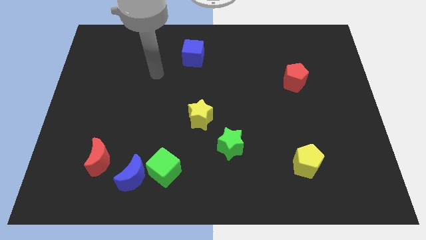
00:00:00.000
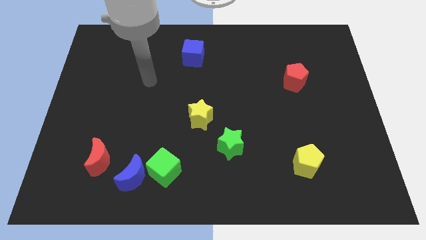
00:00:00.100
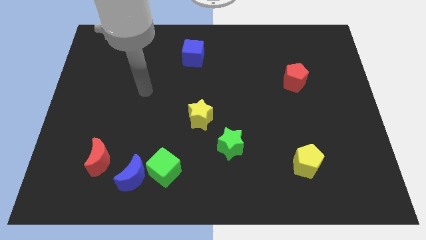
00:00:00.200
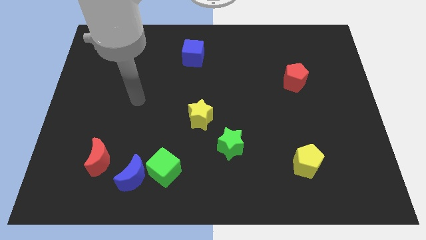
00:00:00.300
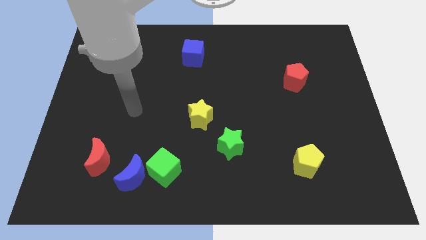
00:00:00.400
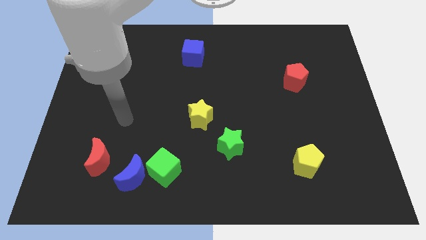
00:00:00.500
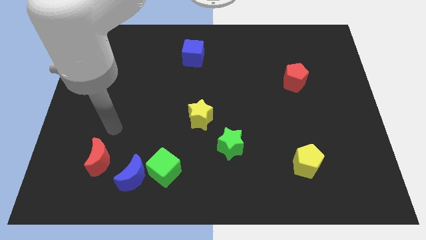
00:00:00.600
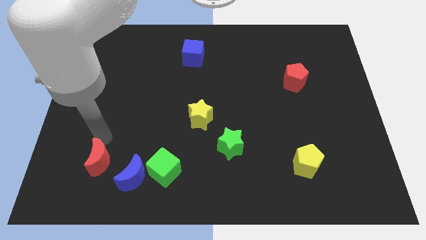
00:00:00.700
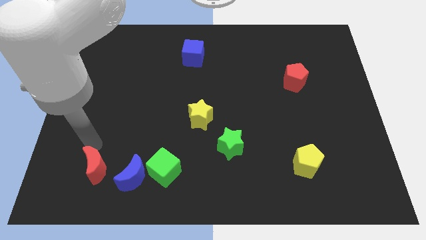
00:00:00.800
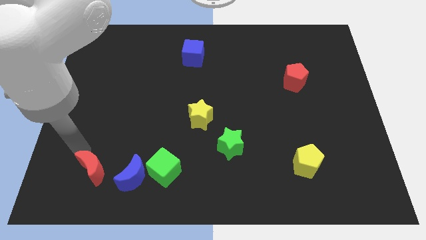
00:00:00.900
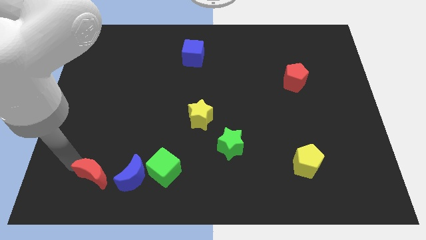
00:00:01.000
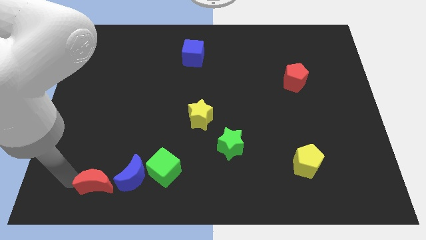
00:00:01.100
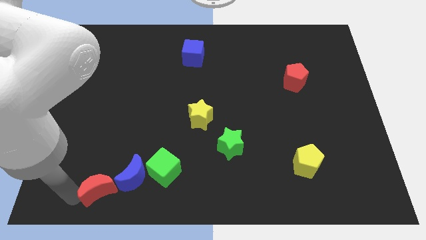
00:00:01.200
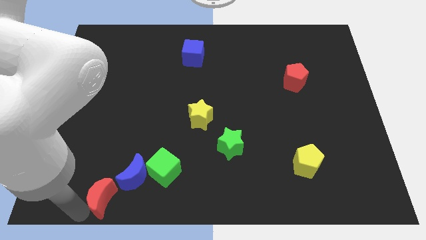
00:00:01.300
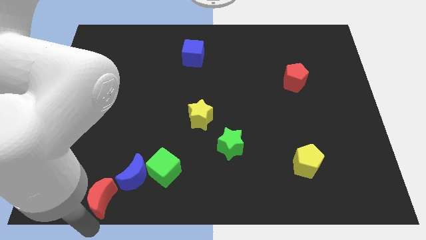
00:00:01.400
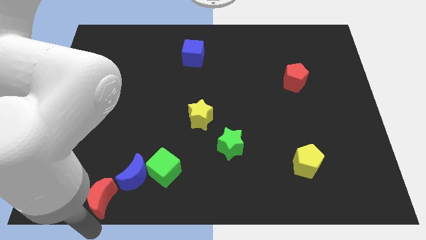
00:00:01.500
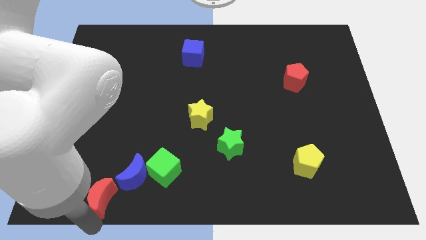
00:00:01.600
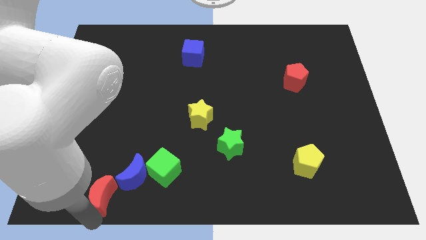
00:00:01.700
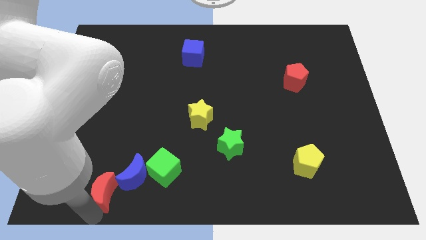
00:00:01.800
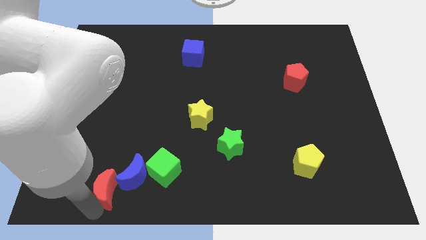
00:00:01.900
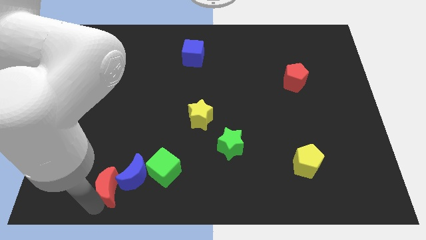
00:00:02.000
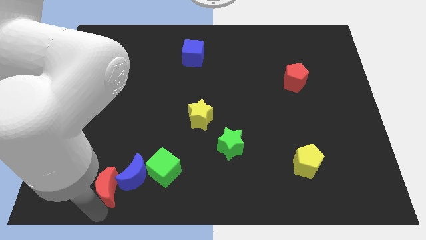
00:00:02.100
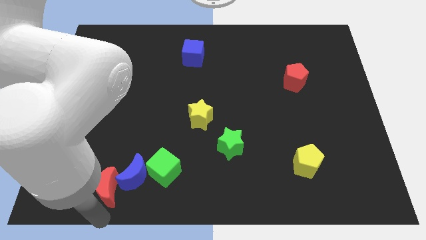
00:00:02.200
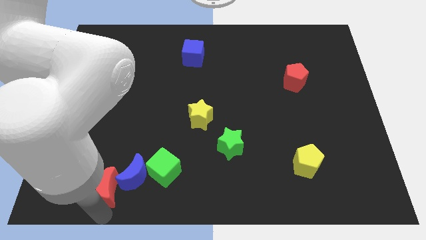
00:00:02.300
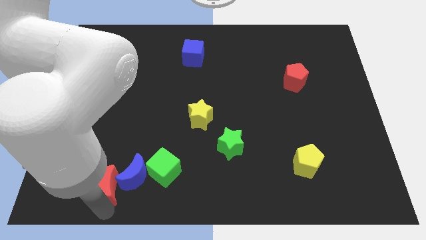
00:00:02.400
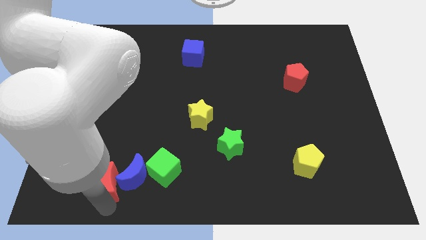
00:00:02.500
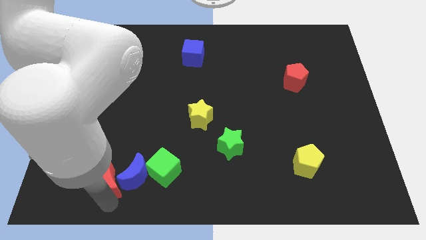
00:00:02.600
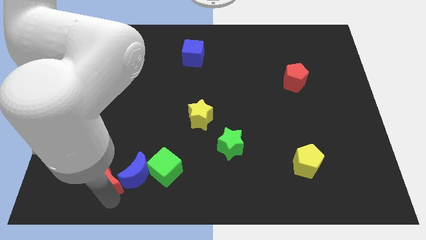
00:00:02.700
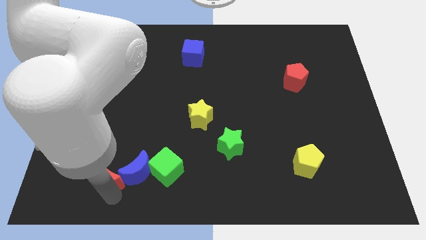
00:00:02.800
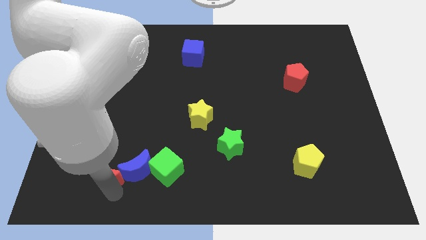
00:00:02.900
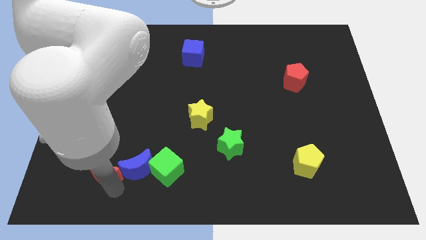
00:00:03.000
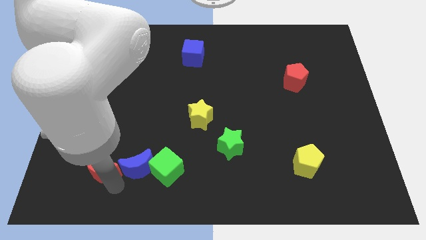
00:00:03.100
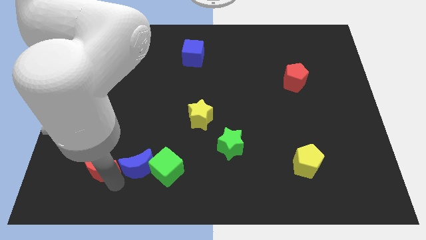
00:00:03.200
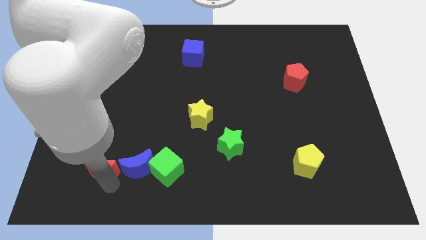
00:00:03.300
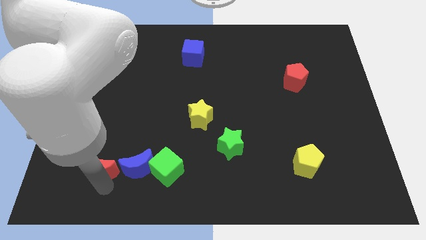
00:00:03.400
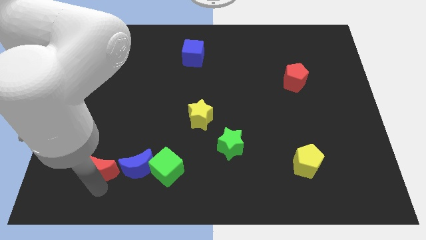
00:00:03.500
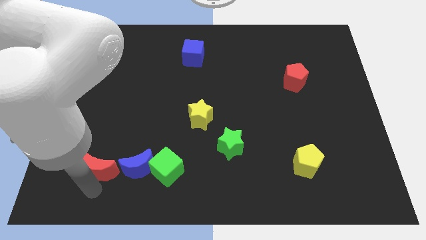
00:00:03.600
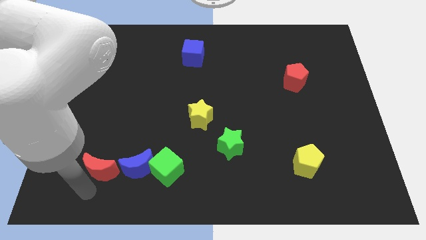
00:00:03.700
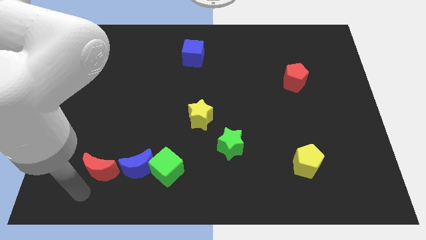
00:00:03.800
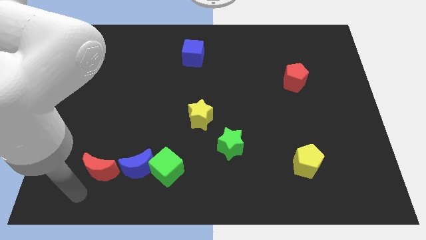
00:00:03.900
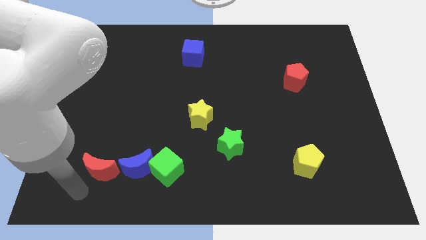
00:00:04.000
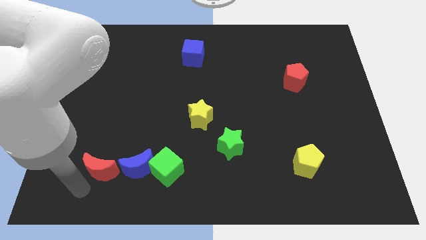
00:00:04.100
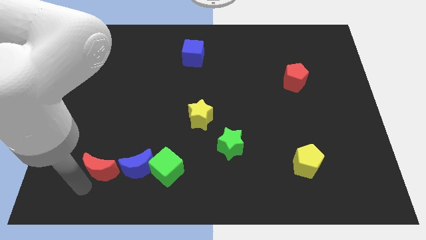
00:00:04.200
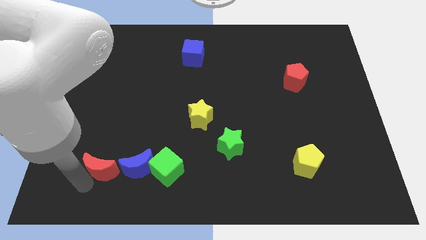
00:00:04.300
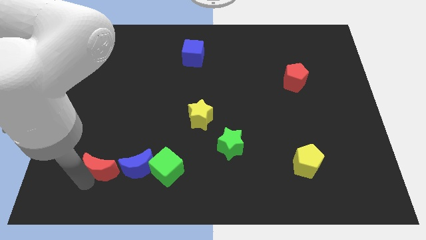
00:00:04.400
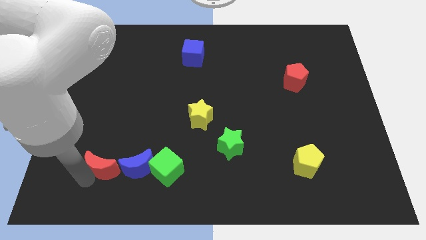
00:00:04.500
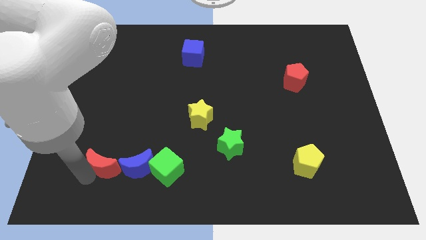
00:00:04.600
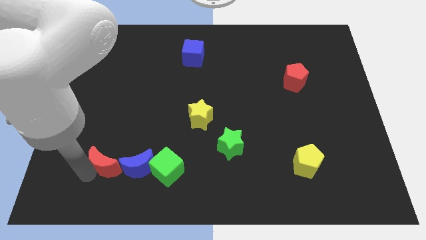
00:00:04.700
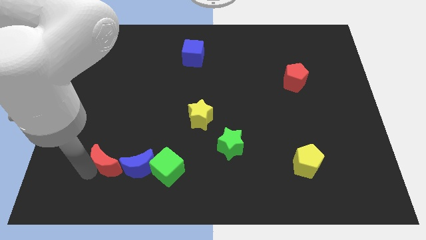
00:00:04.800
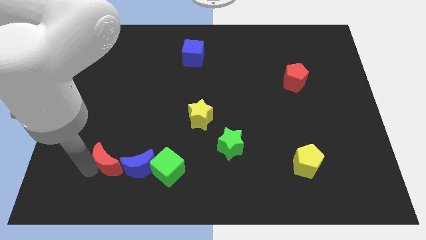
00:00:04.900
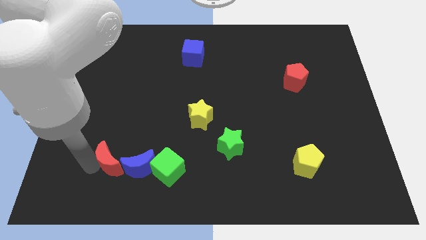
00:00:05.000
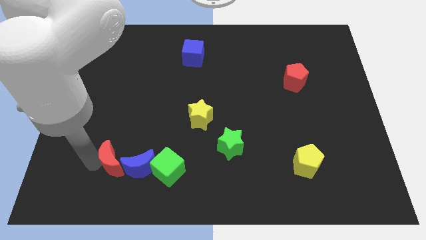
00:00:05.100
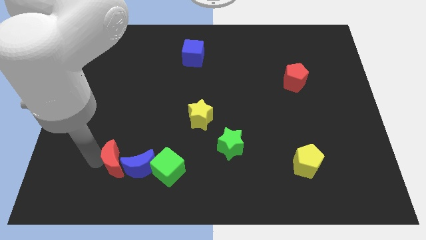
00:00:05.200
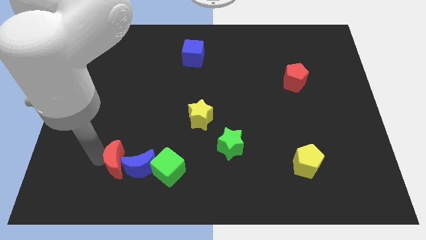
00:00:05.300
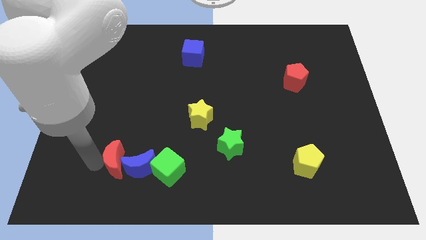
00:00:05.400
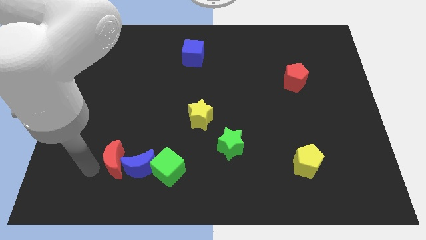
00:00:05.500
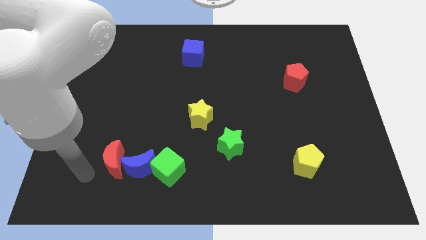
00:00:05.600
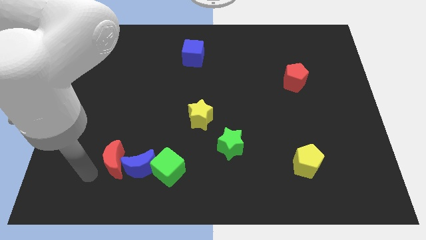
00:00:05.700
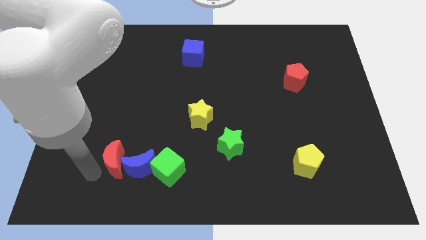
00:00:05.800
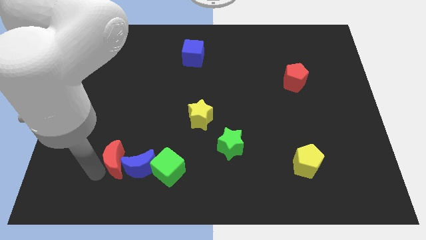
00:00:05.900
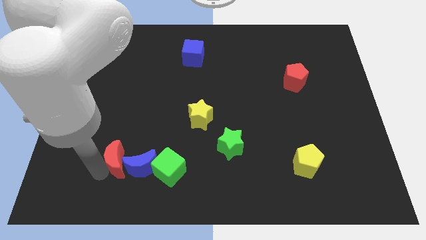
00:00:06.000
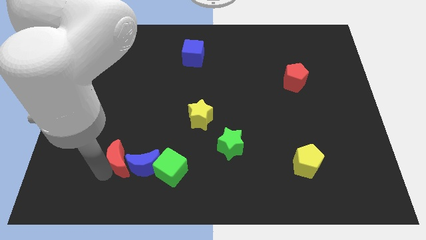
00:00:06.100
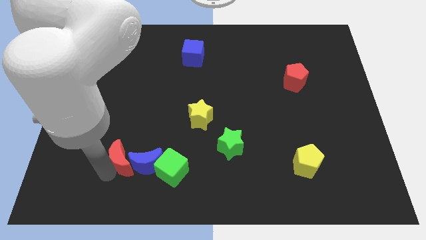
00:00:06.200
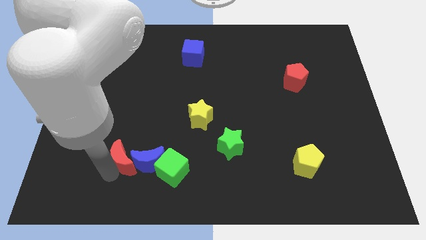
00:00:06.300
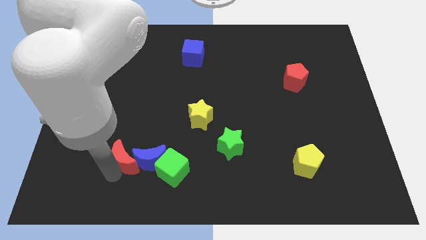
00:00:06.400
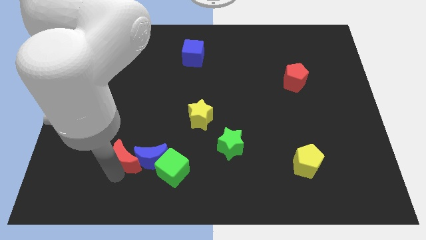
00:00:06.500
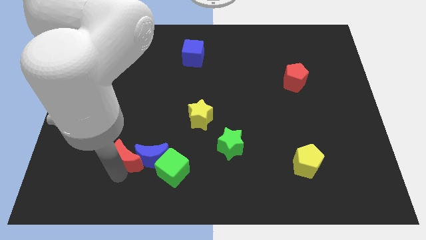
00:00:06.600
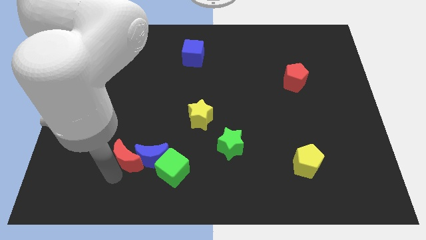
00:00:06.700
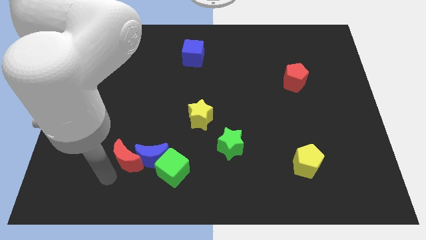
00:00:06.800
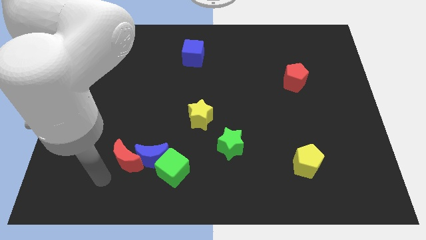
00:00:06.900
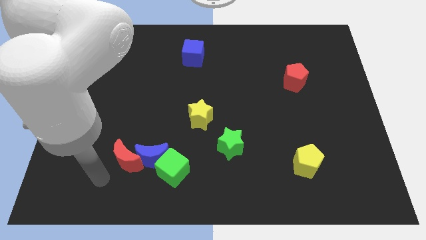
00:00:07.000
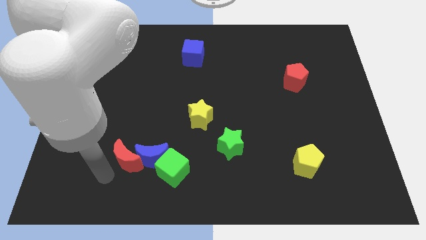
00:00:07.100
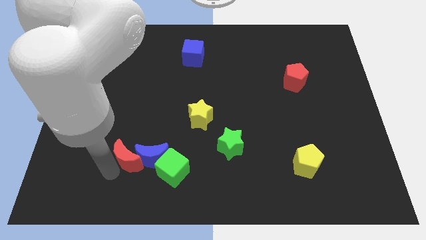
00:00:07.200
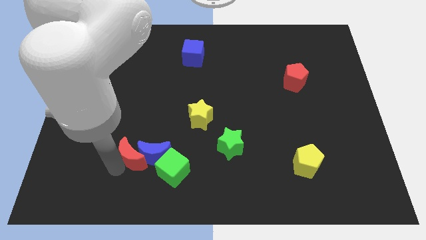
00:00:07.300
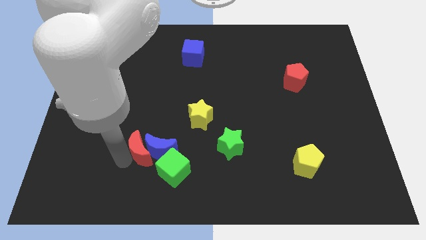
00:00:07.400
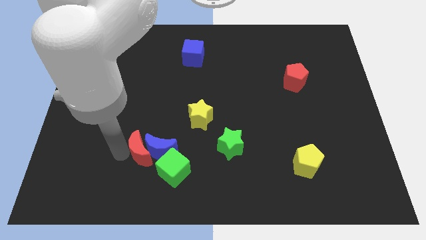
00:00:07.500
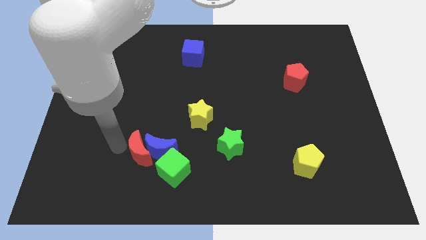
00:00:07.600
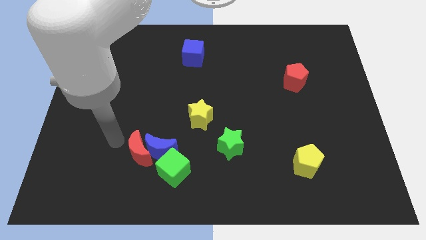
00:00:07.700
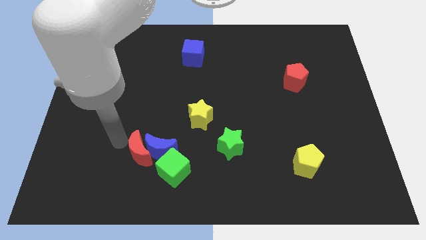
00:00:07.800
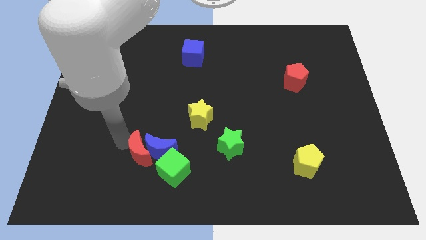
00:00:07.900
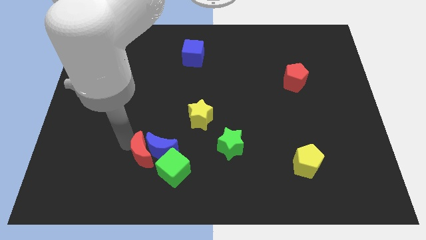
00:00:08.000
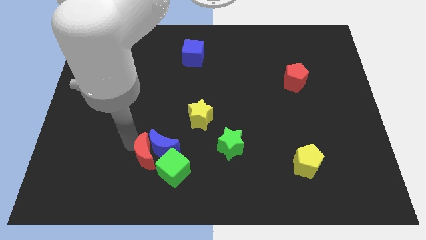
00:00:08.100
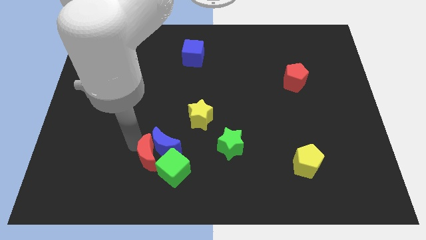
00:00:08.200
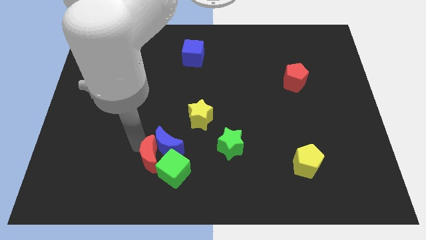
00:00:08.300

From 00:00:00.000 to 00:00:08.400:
slide the red moon towards the green cube
